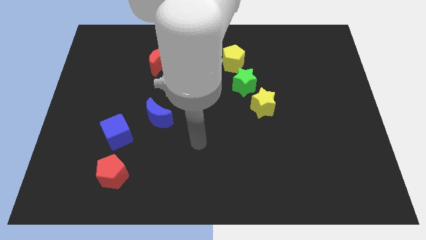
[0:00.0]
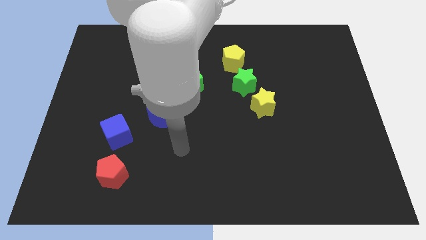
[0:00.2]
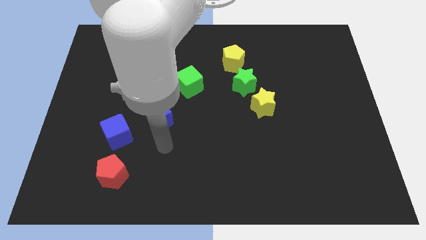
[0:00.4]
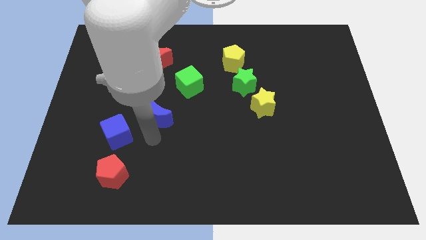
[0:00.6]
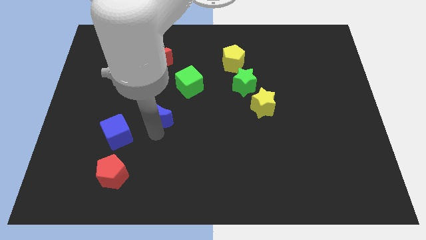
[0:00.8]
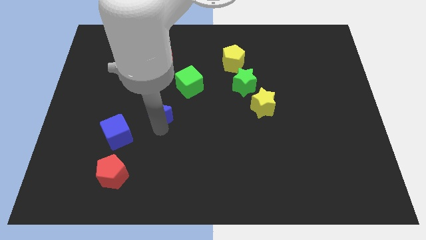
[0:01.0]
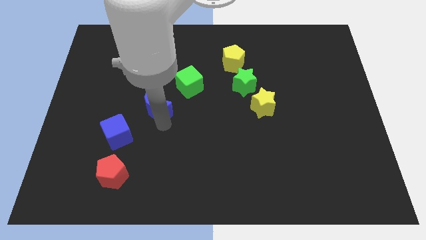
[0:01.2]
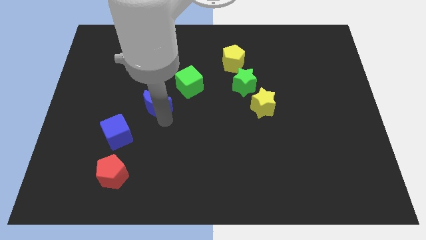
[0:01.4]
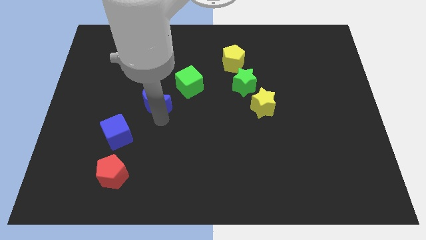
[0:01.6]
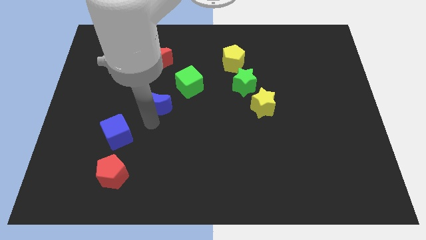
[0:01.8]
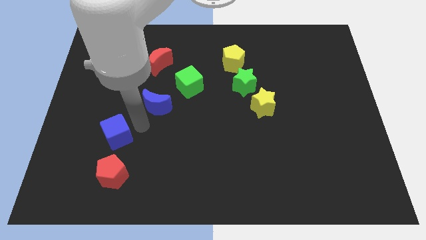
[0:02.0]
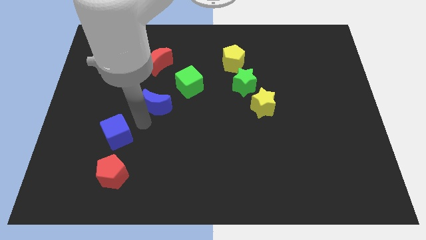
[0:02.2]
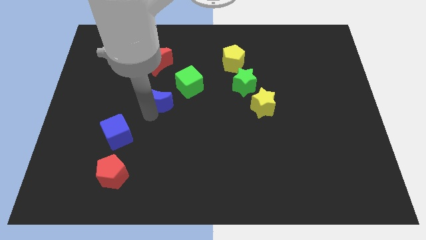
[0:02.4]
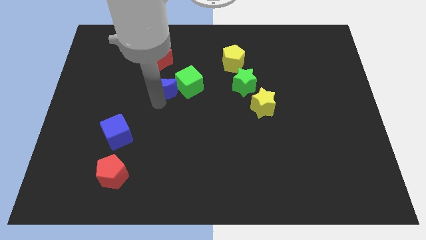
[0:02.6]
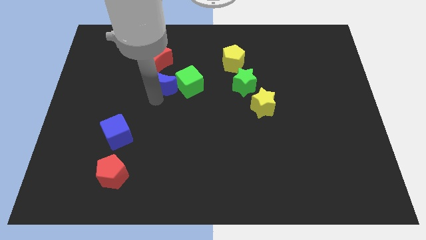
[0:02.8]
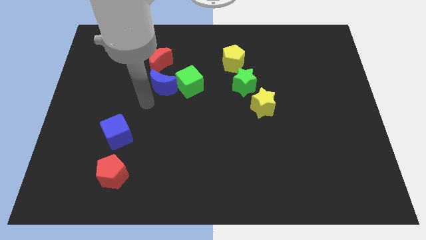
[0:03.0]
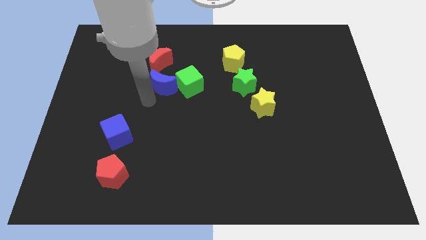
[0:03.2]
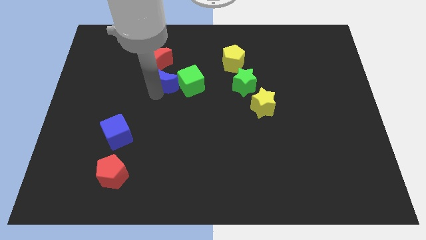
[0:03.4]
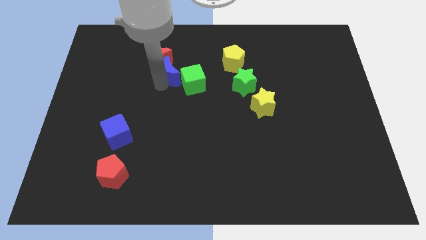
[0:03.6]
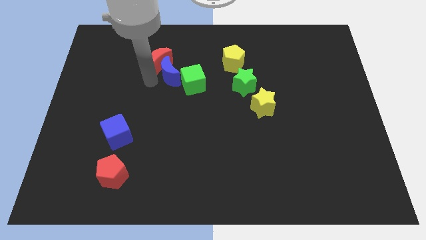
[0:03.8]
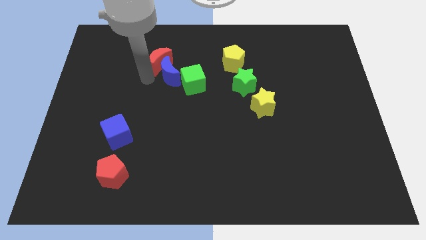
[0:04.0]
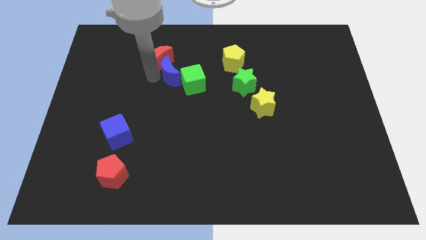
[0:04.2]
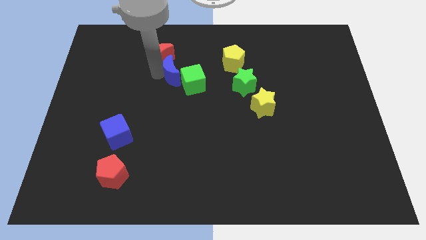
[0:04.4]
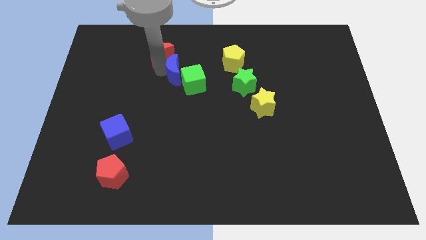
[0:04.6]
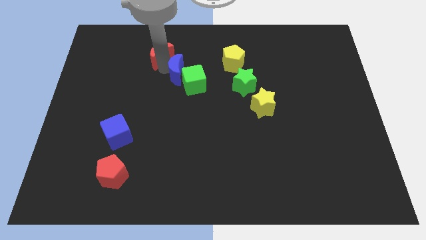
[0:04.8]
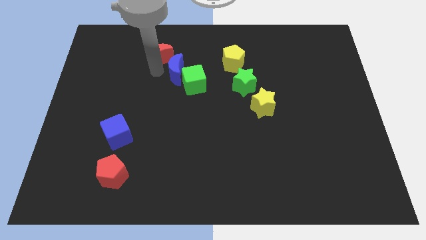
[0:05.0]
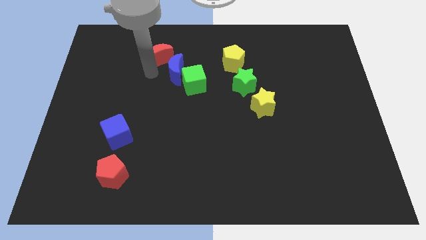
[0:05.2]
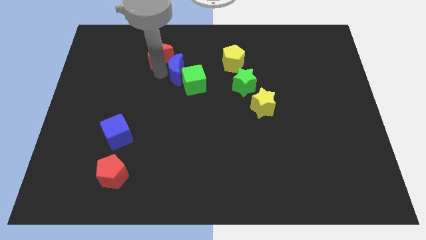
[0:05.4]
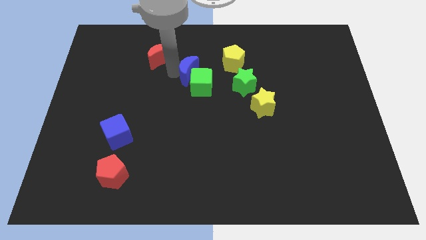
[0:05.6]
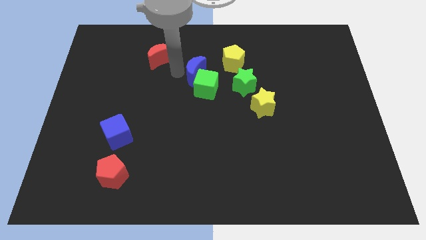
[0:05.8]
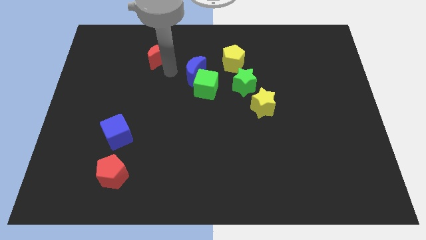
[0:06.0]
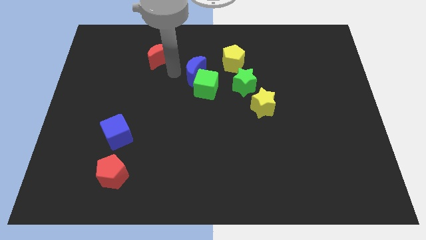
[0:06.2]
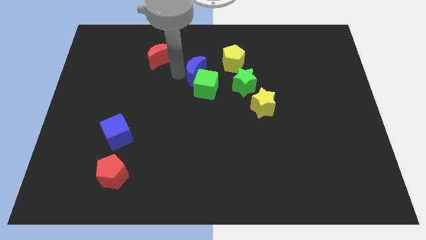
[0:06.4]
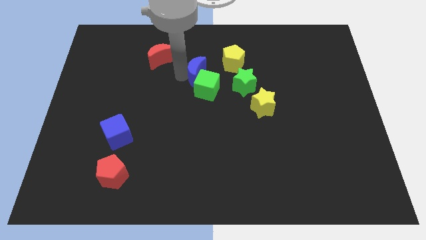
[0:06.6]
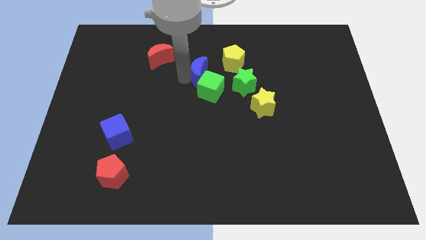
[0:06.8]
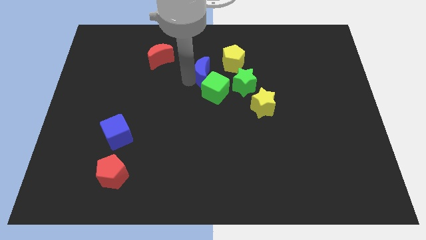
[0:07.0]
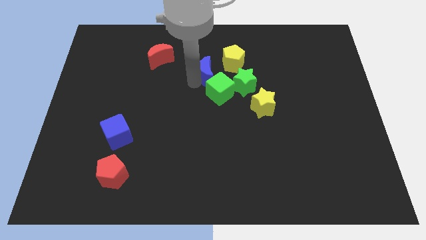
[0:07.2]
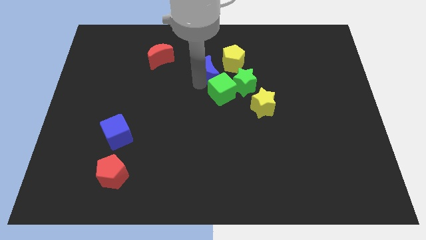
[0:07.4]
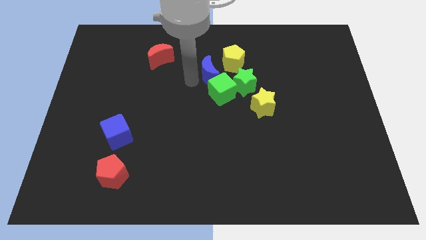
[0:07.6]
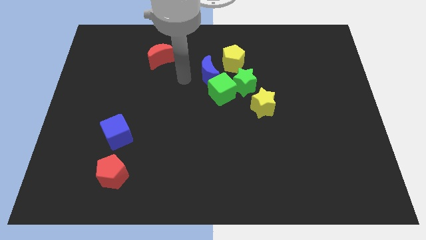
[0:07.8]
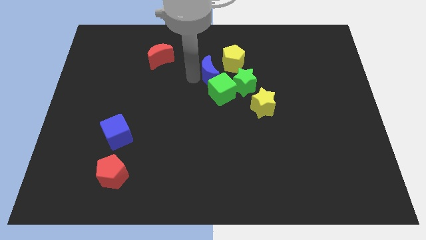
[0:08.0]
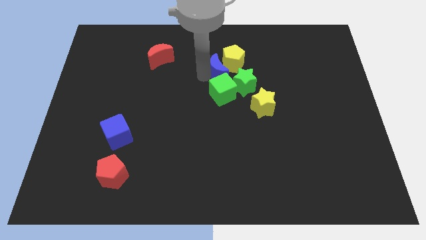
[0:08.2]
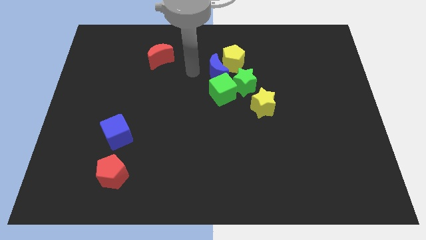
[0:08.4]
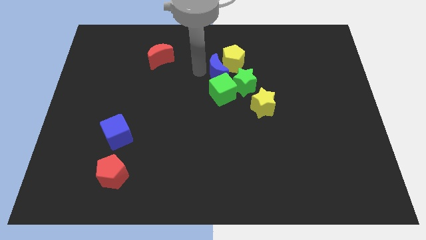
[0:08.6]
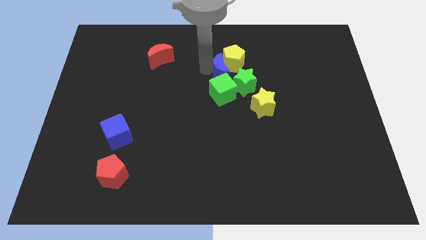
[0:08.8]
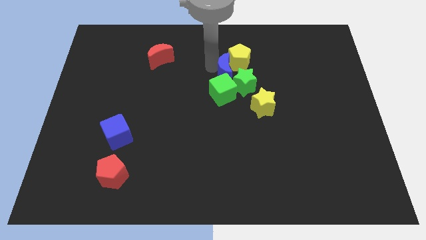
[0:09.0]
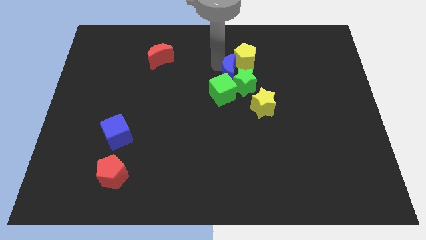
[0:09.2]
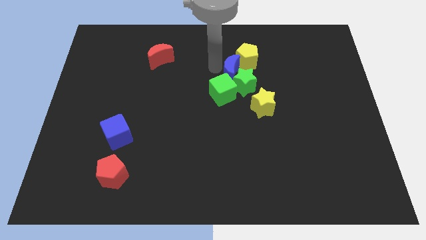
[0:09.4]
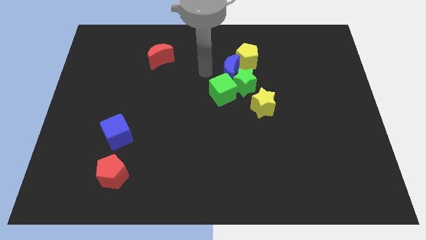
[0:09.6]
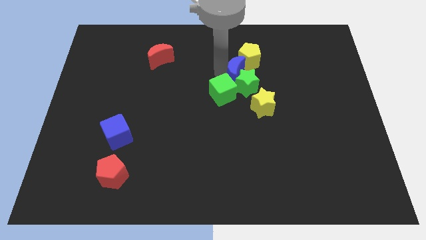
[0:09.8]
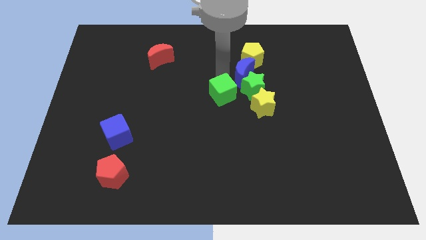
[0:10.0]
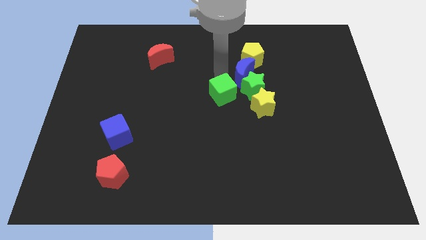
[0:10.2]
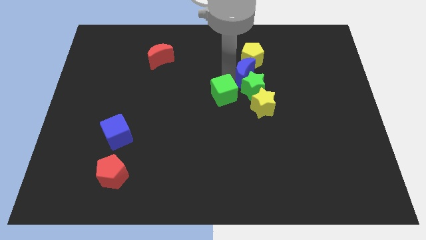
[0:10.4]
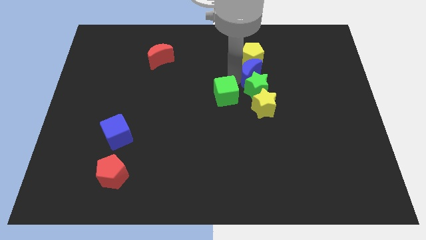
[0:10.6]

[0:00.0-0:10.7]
move the blue moon to the bottom right side of the yellow pentagon

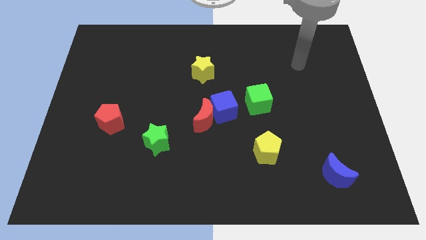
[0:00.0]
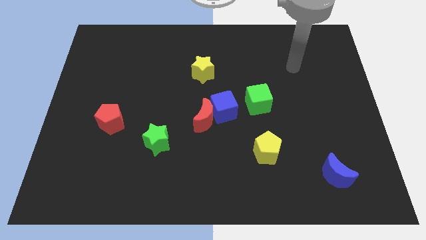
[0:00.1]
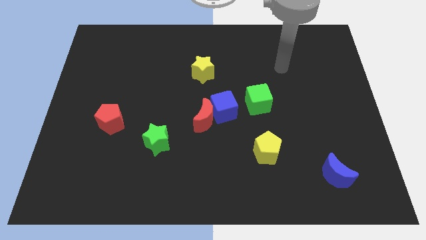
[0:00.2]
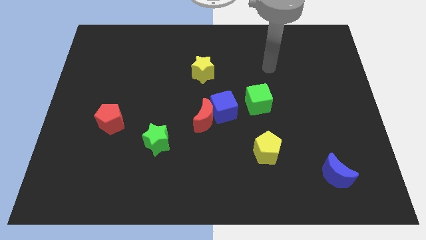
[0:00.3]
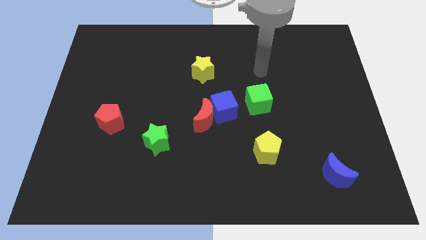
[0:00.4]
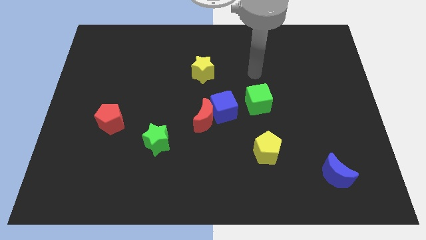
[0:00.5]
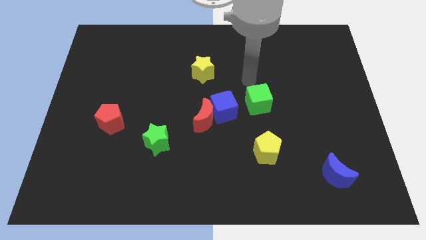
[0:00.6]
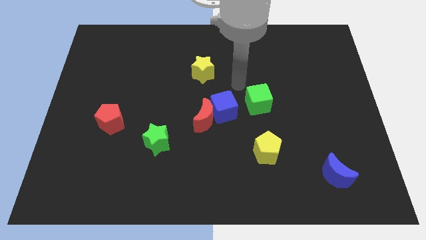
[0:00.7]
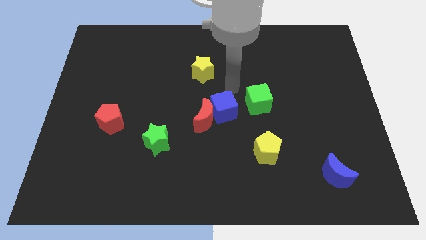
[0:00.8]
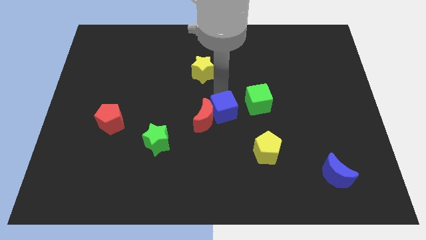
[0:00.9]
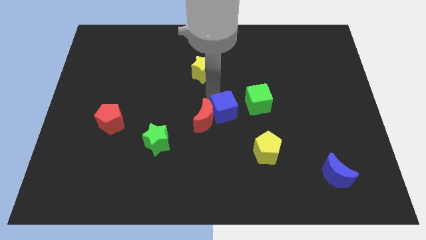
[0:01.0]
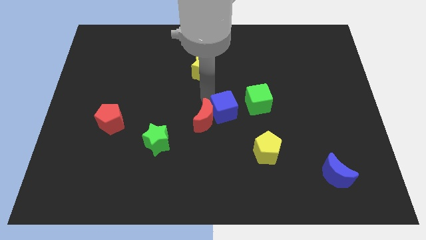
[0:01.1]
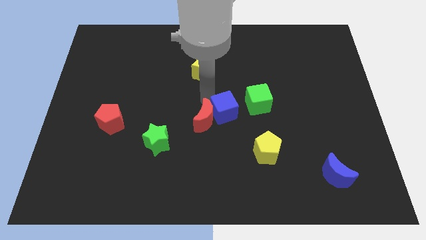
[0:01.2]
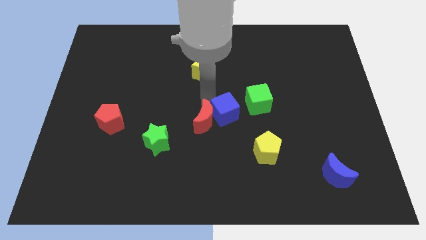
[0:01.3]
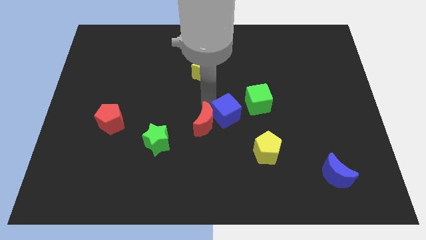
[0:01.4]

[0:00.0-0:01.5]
move the red moon just right of the green star

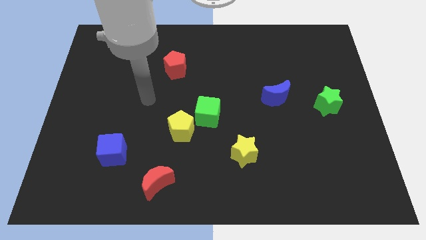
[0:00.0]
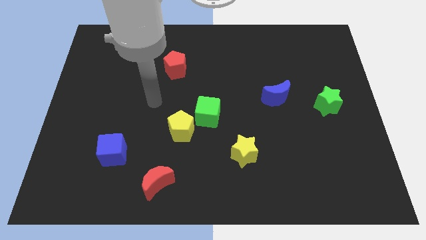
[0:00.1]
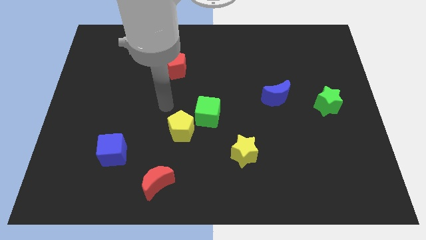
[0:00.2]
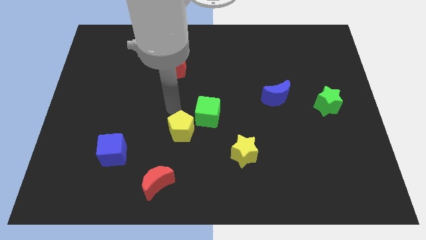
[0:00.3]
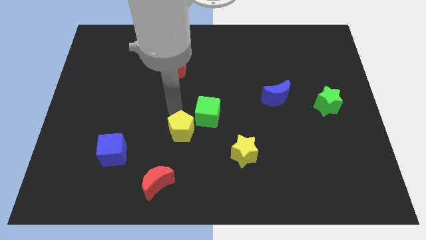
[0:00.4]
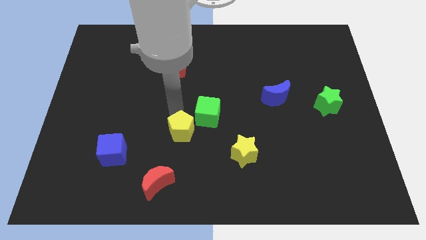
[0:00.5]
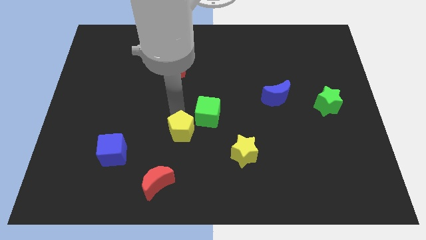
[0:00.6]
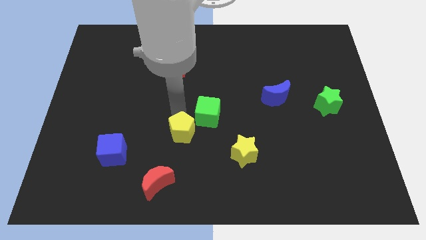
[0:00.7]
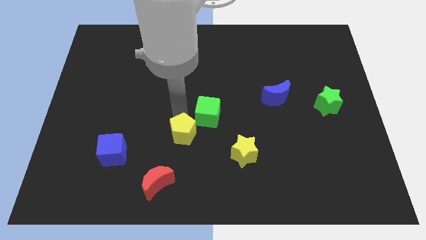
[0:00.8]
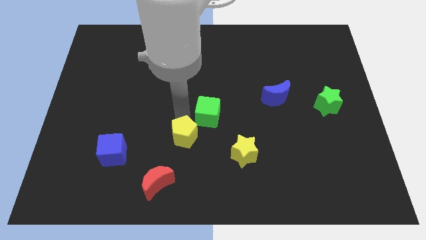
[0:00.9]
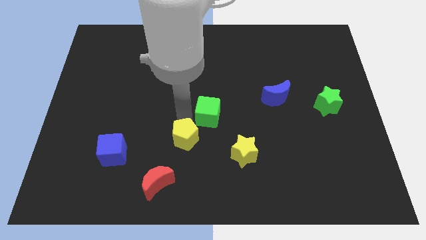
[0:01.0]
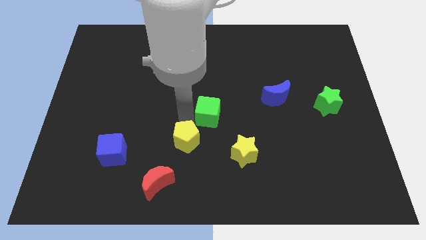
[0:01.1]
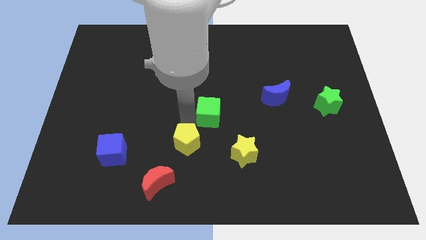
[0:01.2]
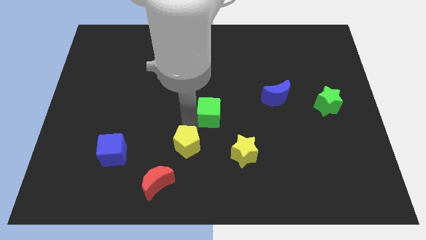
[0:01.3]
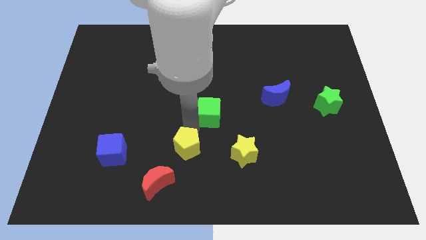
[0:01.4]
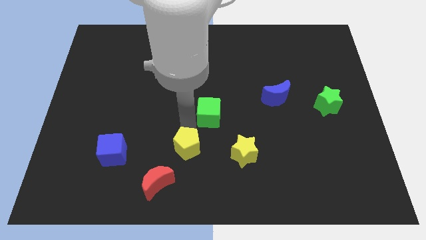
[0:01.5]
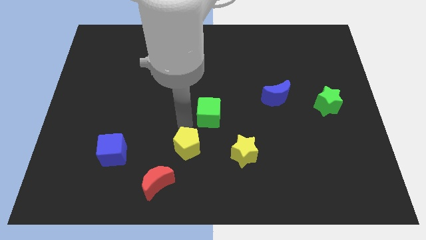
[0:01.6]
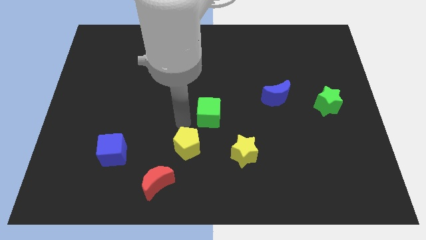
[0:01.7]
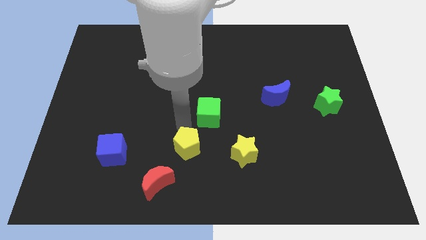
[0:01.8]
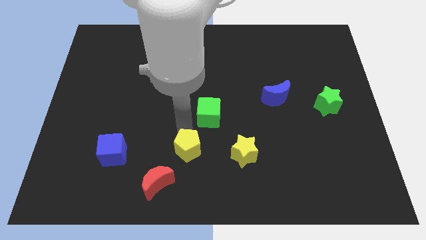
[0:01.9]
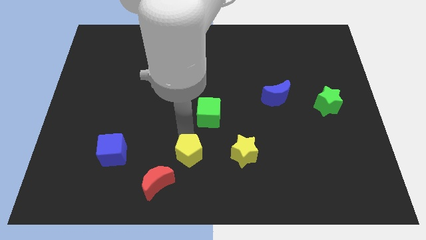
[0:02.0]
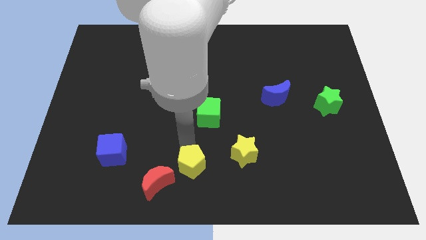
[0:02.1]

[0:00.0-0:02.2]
slide the yellow pentagon just right of the red moon
